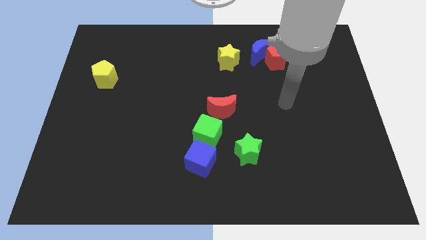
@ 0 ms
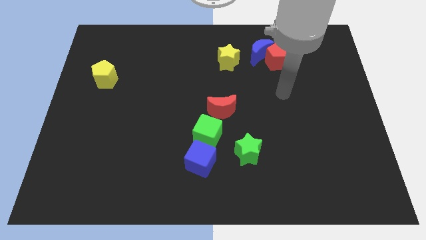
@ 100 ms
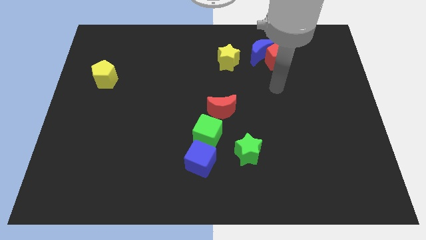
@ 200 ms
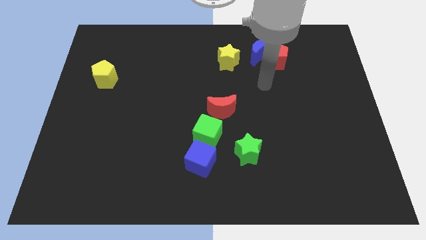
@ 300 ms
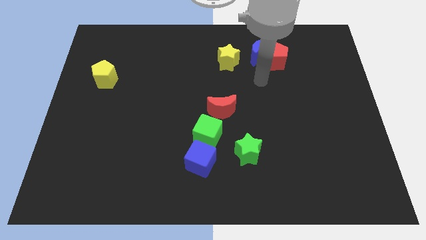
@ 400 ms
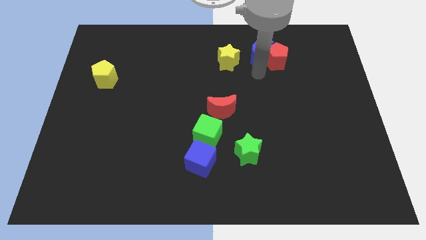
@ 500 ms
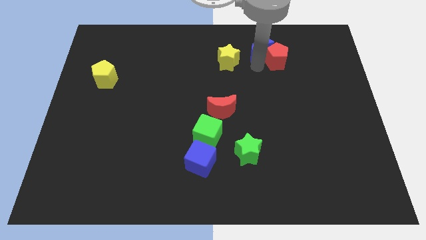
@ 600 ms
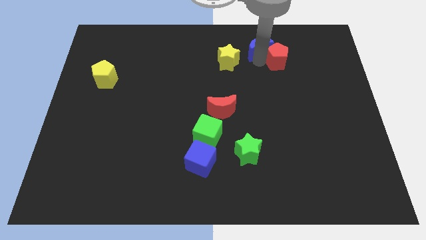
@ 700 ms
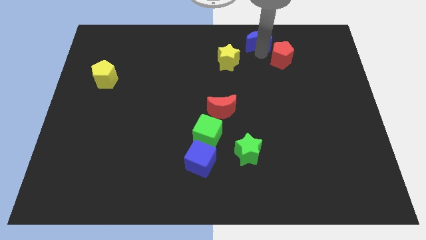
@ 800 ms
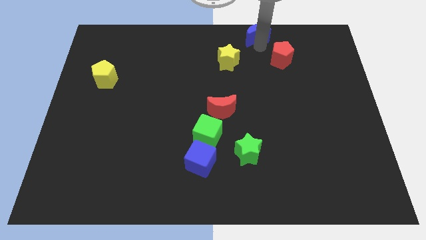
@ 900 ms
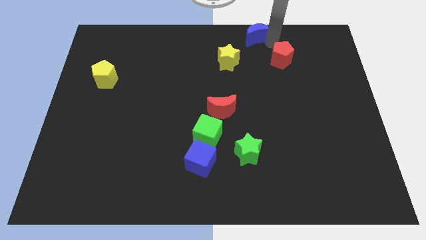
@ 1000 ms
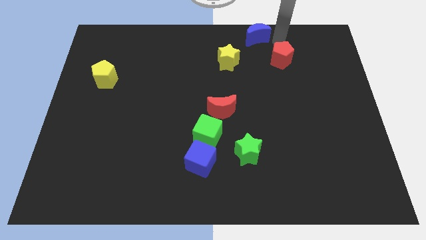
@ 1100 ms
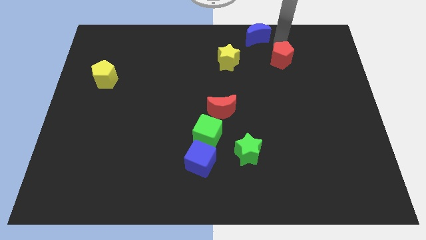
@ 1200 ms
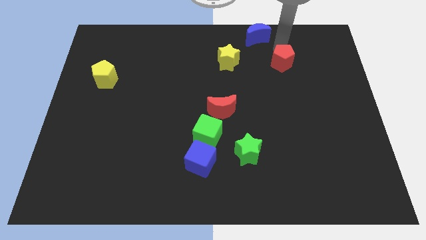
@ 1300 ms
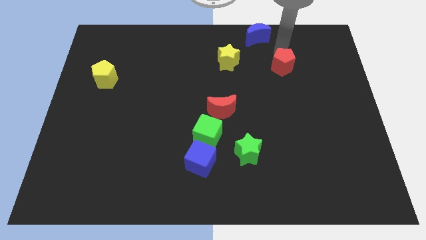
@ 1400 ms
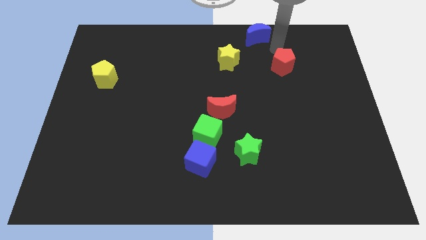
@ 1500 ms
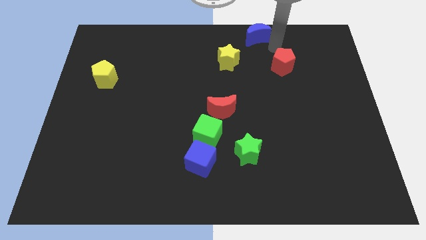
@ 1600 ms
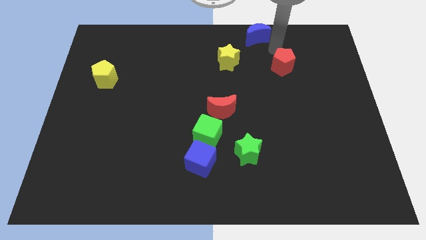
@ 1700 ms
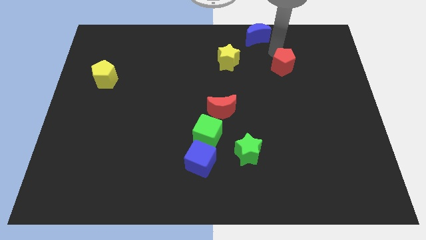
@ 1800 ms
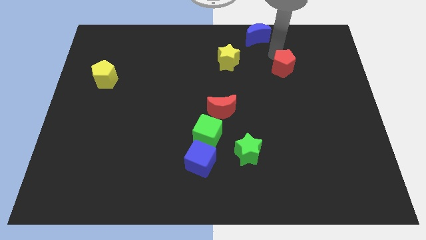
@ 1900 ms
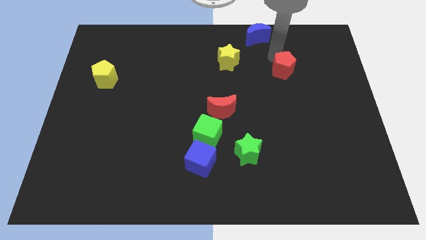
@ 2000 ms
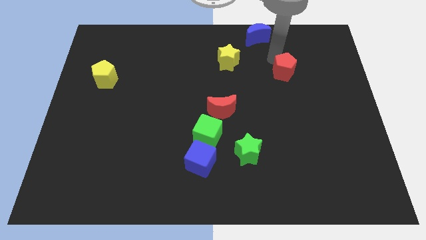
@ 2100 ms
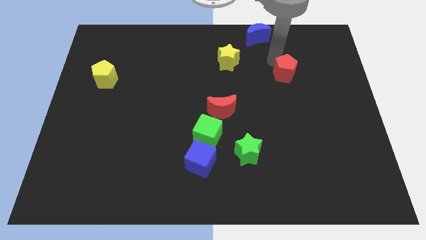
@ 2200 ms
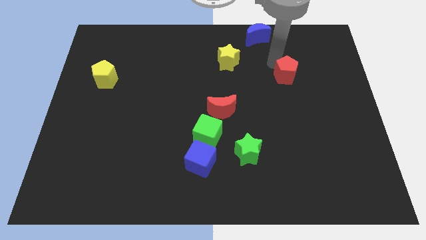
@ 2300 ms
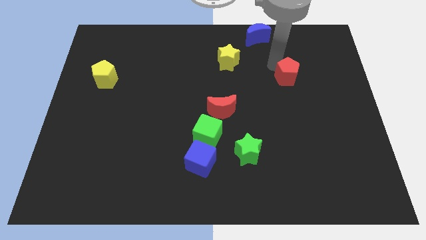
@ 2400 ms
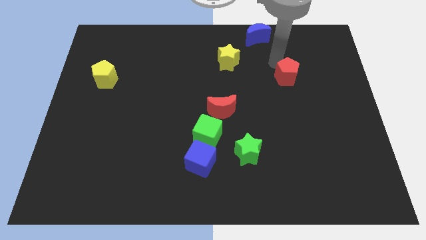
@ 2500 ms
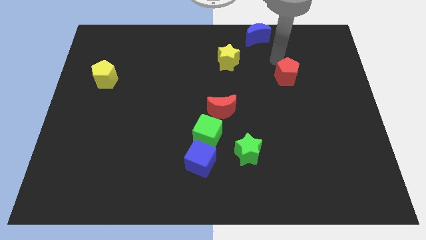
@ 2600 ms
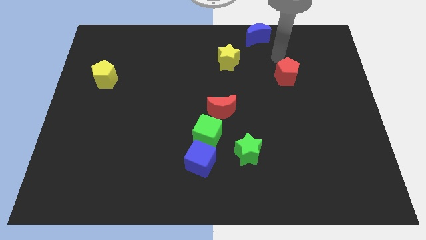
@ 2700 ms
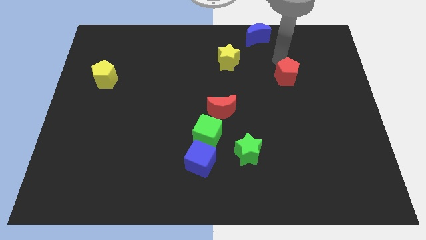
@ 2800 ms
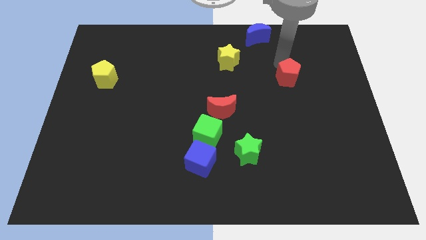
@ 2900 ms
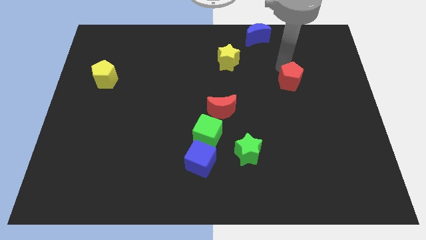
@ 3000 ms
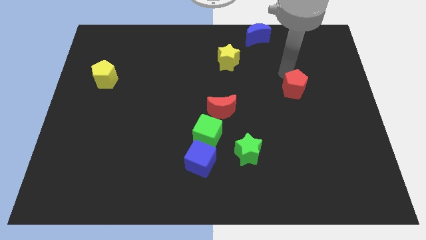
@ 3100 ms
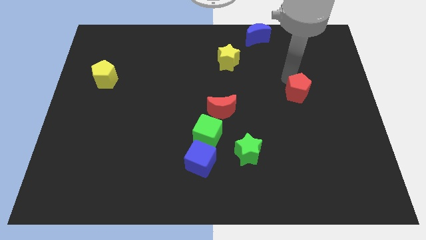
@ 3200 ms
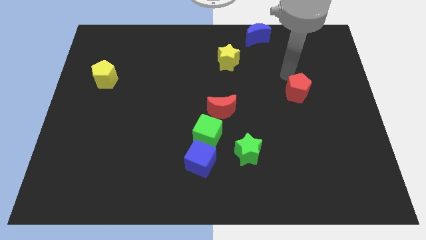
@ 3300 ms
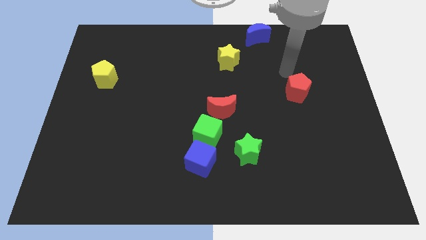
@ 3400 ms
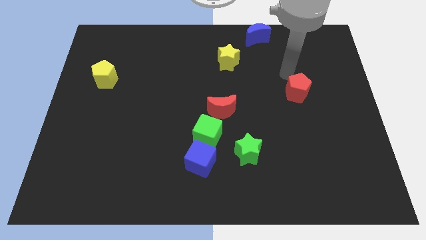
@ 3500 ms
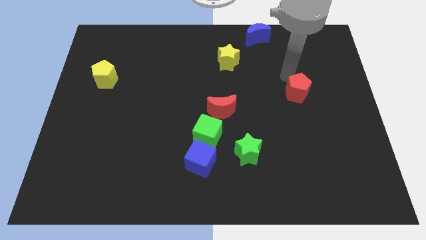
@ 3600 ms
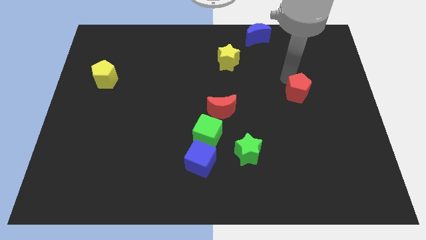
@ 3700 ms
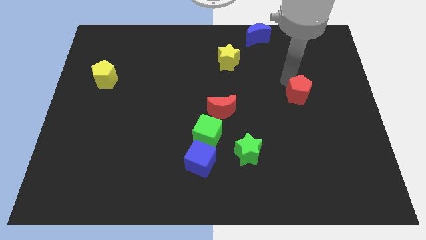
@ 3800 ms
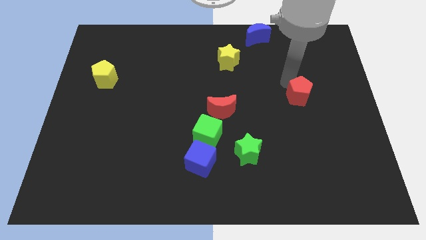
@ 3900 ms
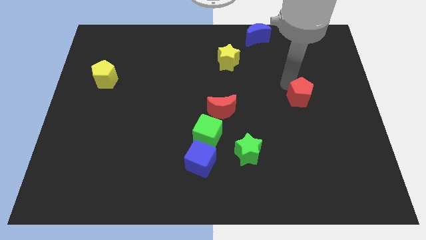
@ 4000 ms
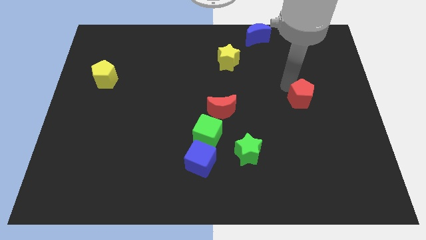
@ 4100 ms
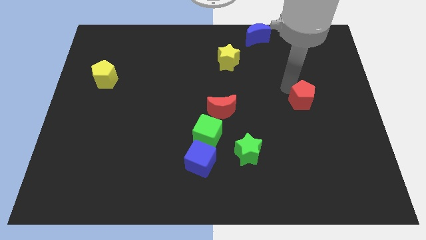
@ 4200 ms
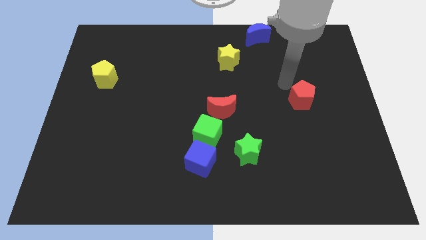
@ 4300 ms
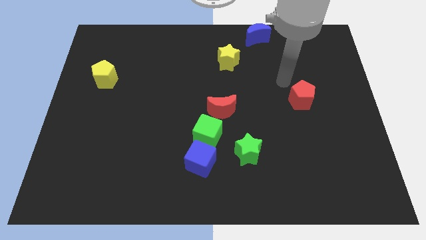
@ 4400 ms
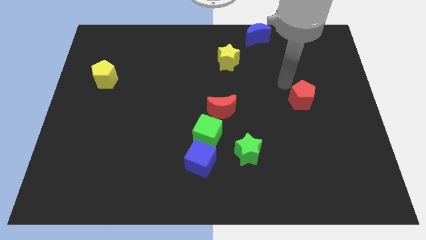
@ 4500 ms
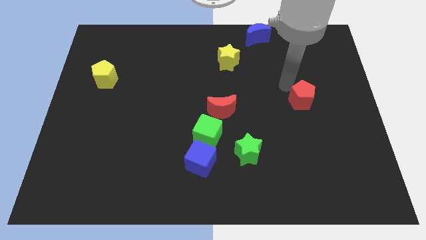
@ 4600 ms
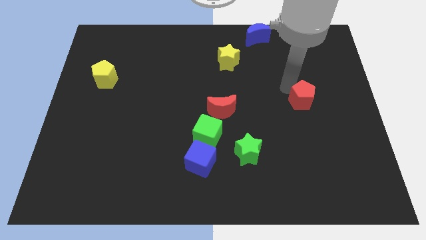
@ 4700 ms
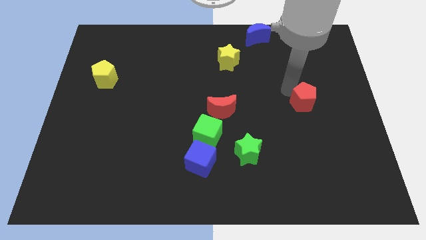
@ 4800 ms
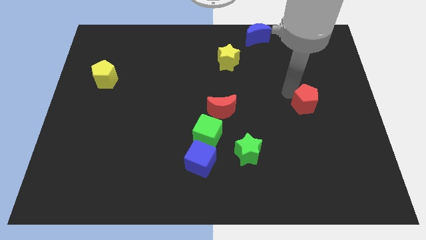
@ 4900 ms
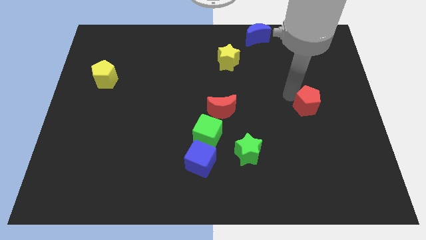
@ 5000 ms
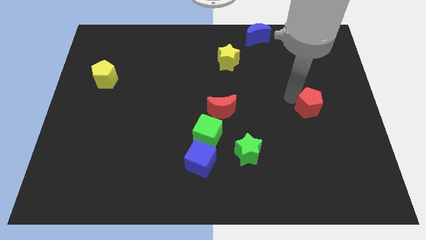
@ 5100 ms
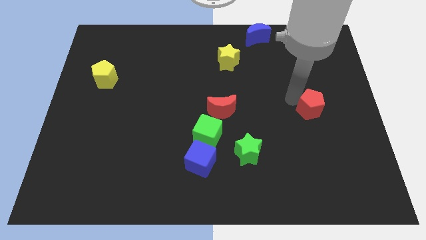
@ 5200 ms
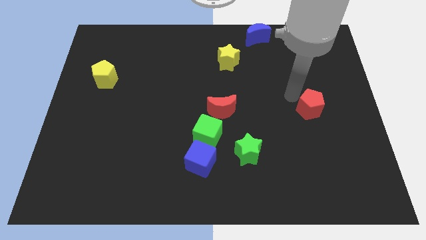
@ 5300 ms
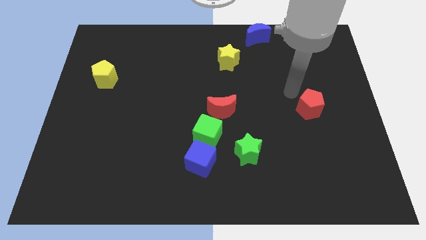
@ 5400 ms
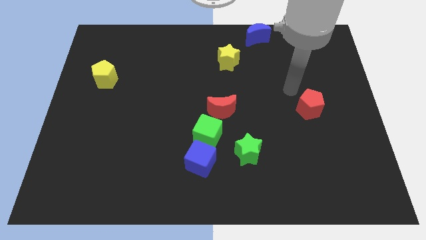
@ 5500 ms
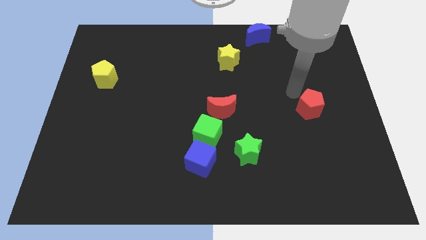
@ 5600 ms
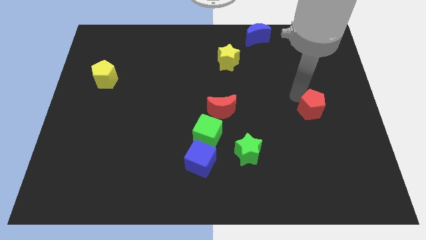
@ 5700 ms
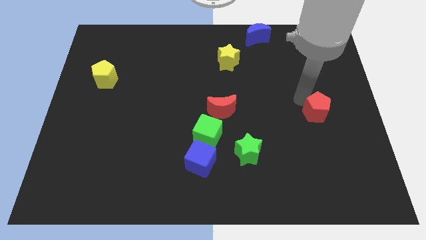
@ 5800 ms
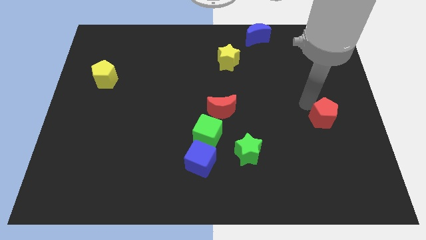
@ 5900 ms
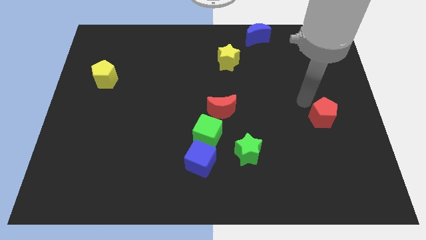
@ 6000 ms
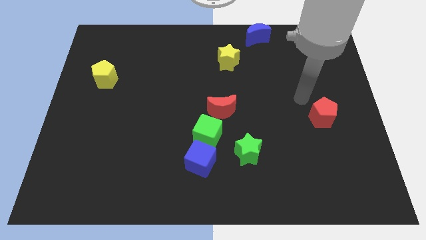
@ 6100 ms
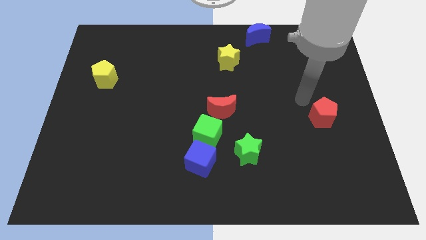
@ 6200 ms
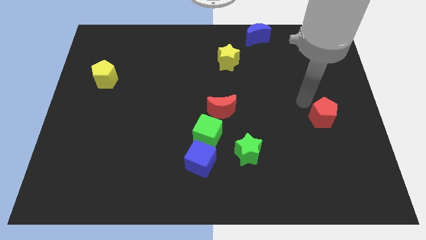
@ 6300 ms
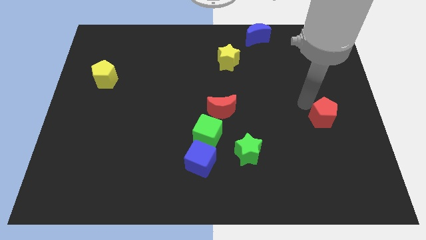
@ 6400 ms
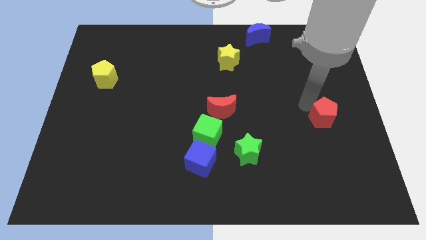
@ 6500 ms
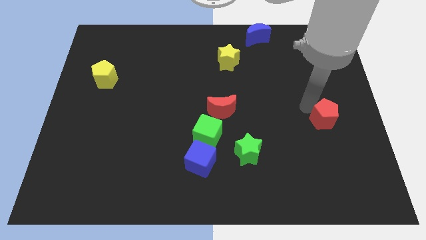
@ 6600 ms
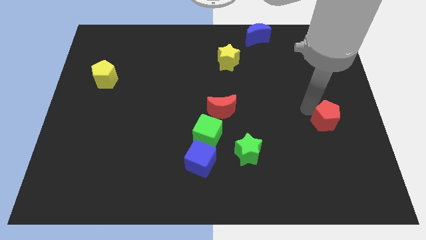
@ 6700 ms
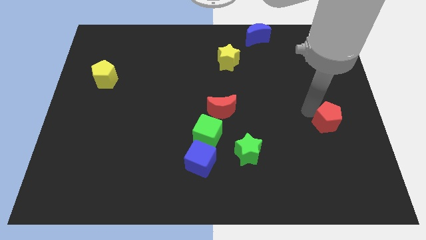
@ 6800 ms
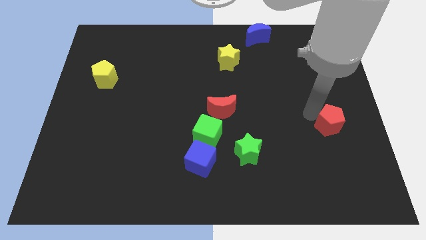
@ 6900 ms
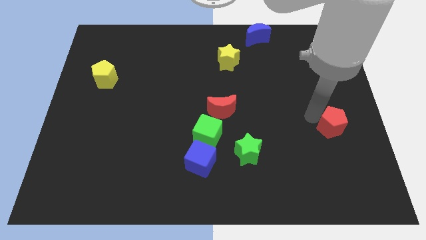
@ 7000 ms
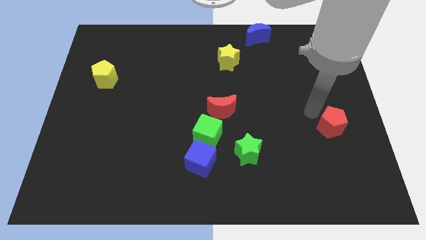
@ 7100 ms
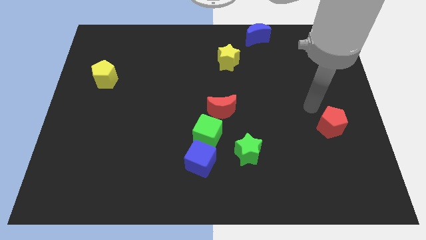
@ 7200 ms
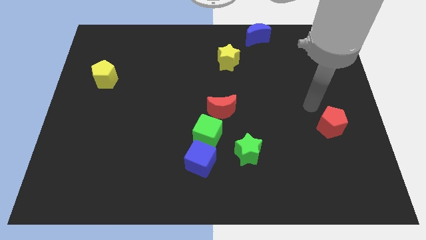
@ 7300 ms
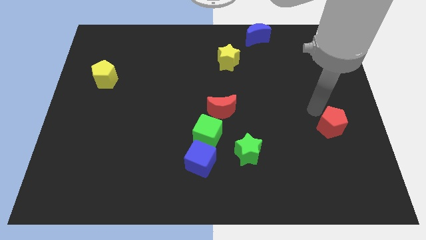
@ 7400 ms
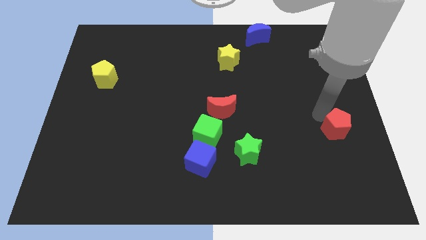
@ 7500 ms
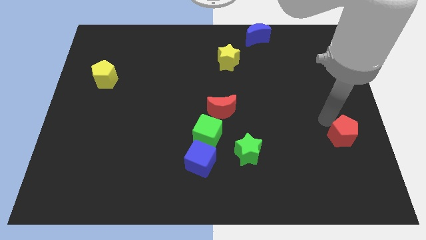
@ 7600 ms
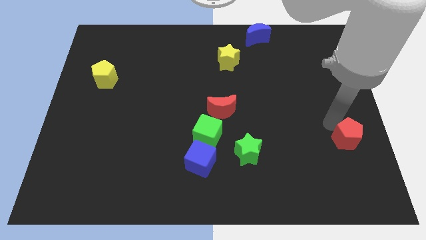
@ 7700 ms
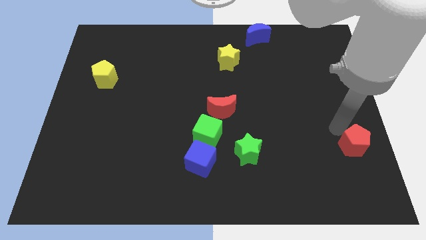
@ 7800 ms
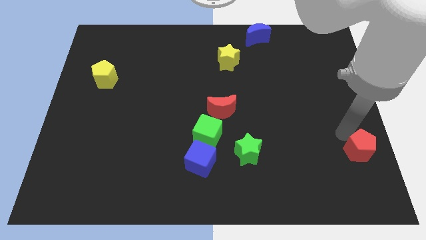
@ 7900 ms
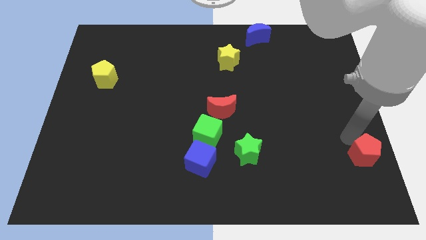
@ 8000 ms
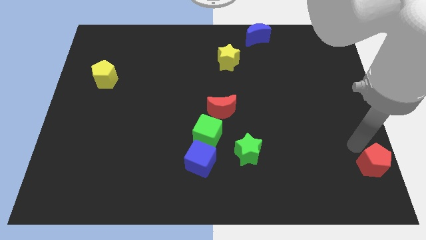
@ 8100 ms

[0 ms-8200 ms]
put the red pentagon to the bottom right
